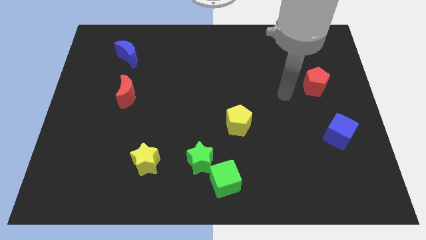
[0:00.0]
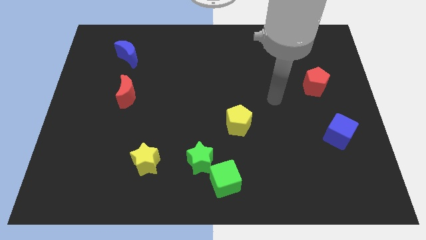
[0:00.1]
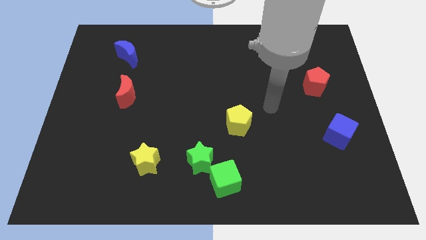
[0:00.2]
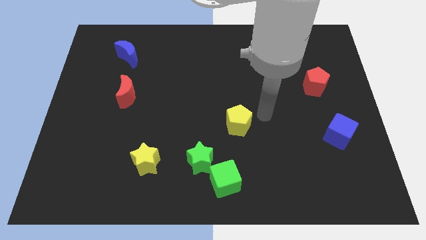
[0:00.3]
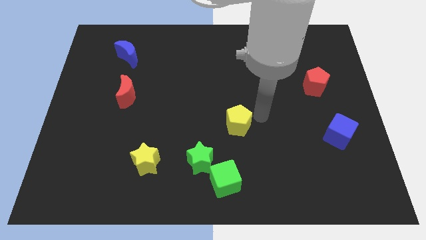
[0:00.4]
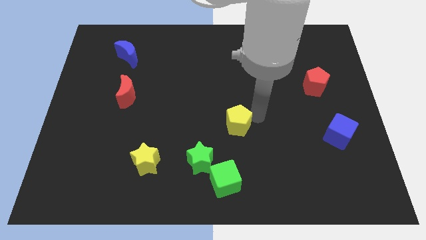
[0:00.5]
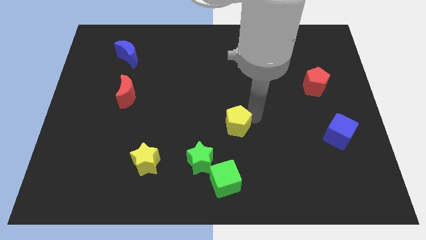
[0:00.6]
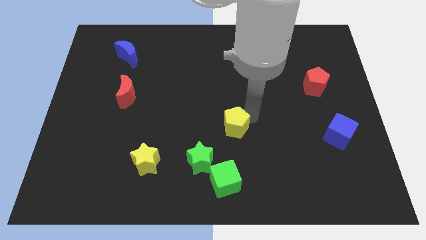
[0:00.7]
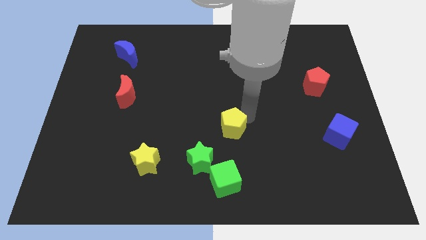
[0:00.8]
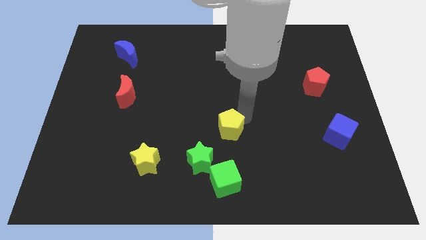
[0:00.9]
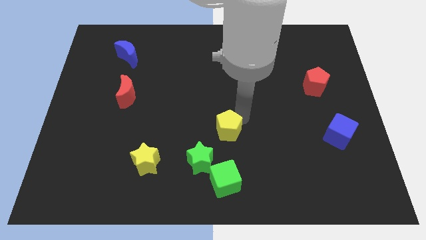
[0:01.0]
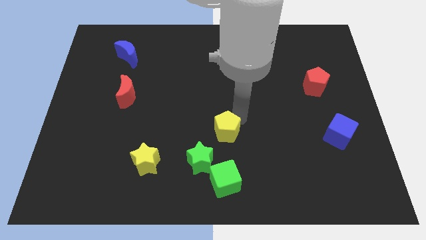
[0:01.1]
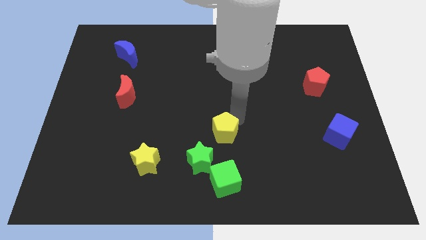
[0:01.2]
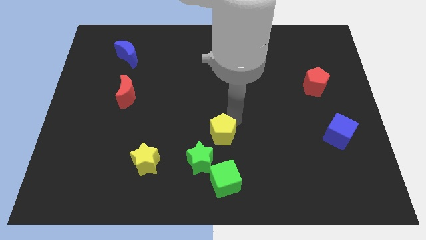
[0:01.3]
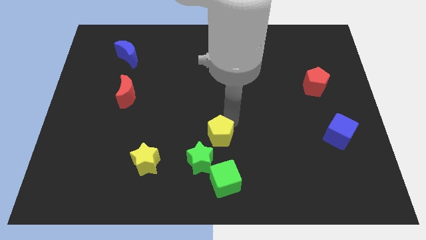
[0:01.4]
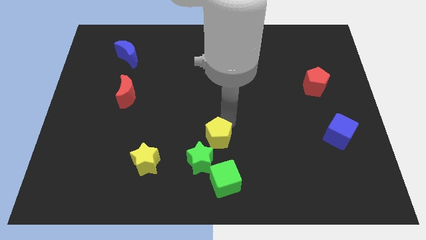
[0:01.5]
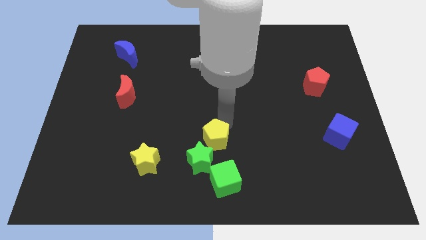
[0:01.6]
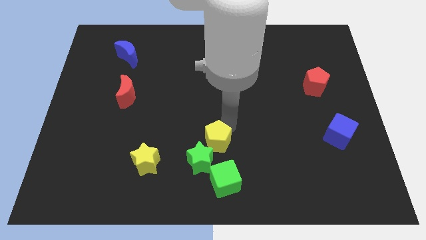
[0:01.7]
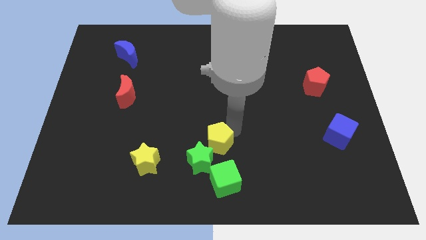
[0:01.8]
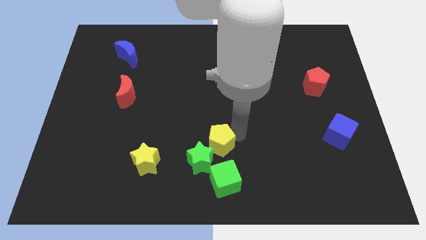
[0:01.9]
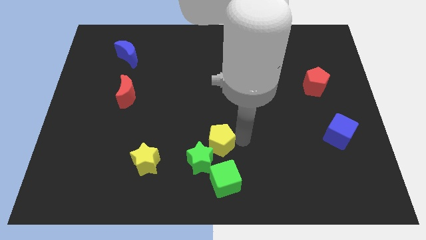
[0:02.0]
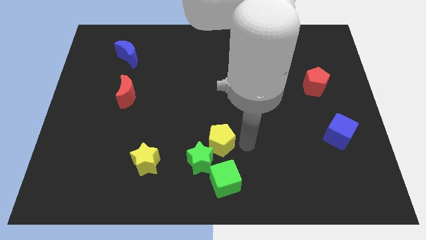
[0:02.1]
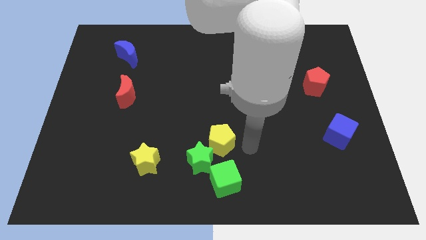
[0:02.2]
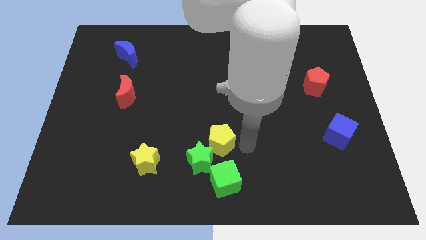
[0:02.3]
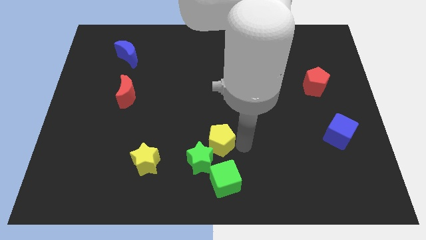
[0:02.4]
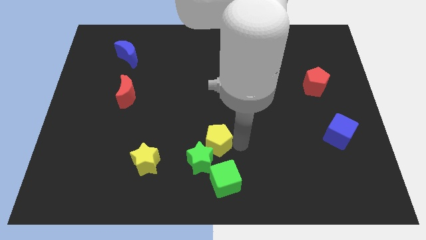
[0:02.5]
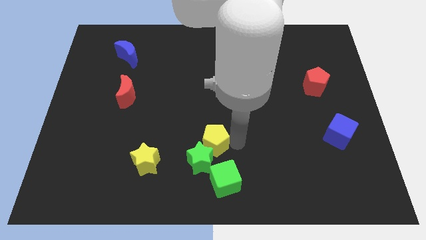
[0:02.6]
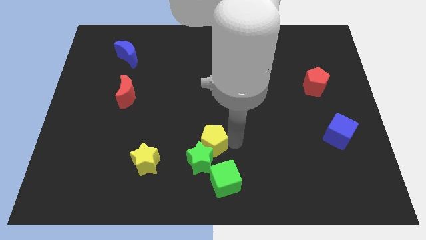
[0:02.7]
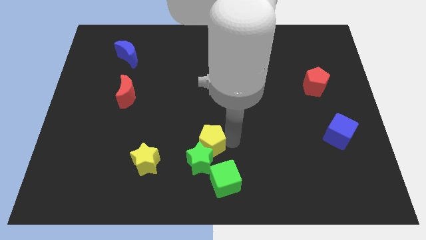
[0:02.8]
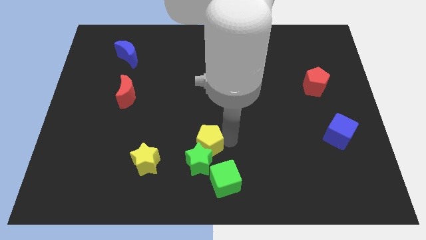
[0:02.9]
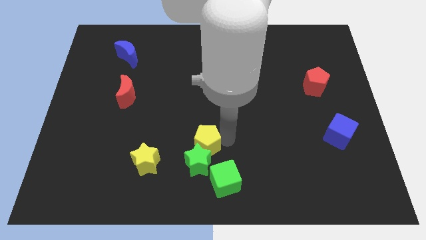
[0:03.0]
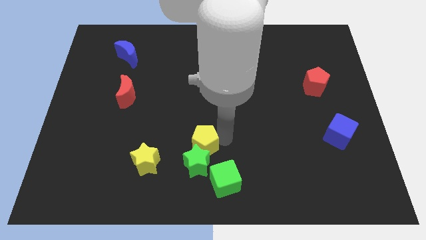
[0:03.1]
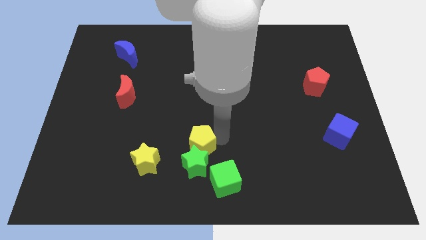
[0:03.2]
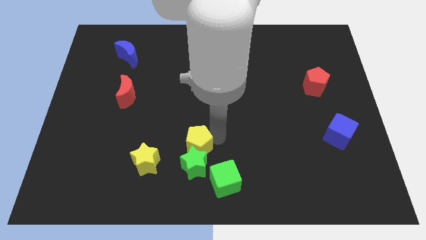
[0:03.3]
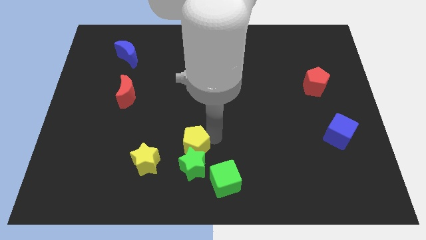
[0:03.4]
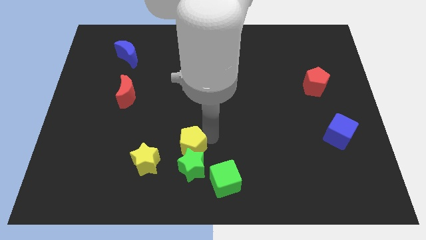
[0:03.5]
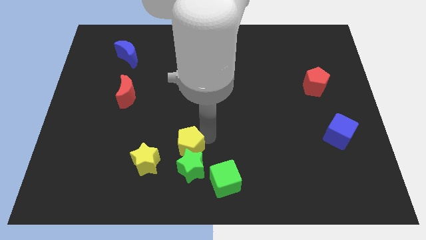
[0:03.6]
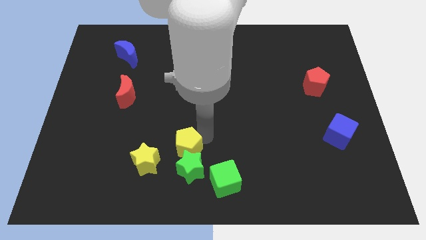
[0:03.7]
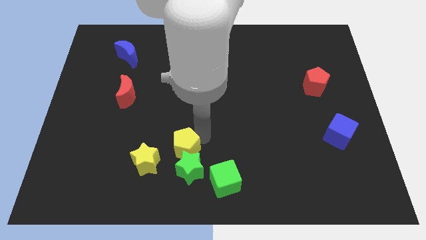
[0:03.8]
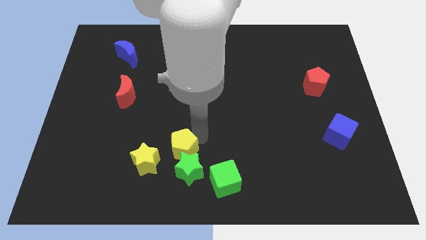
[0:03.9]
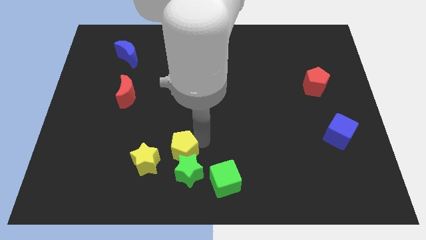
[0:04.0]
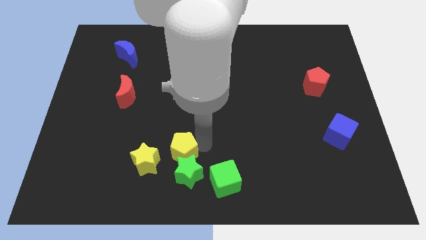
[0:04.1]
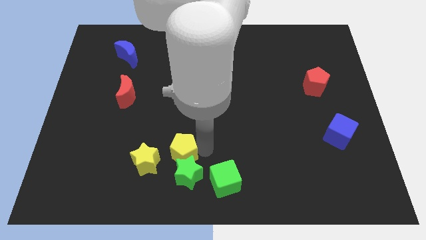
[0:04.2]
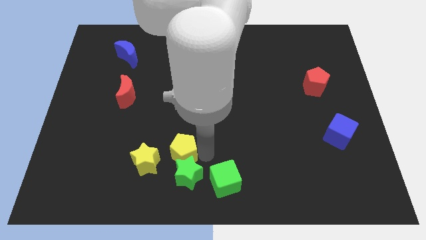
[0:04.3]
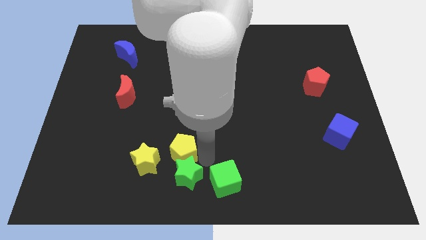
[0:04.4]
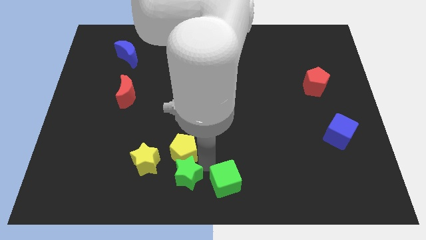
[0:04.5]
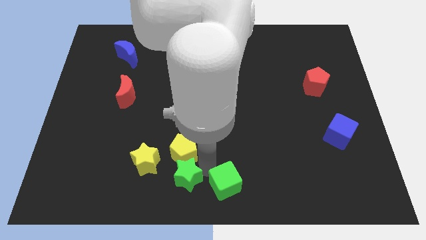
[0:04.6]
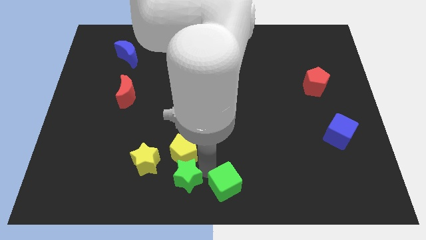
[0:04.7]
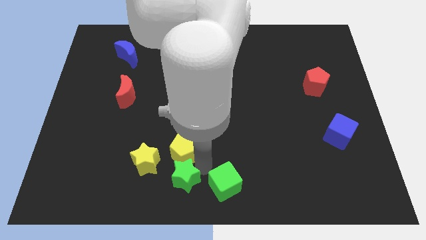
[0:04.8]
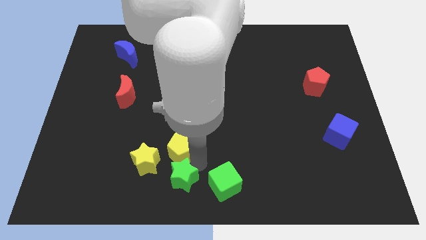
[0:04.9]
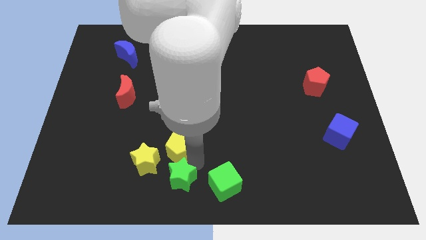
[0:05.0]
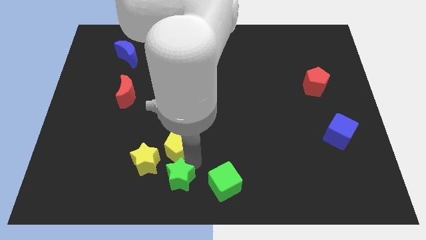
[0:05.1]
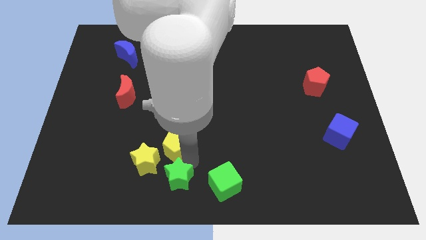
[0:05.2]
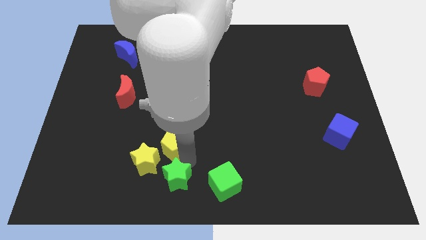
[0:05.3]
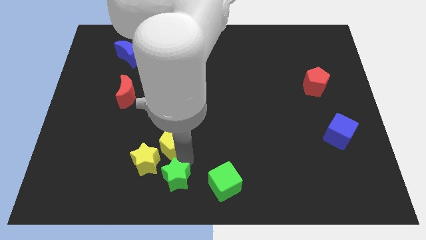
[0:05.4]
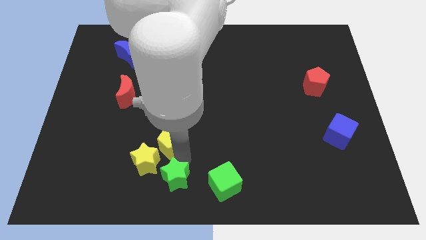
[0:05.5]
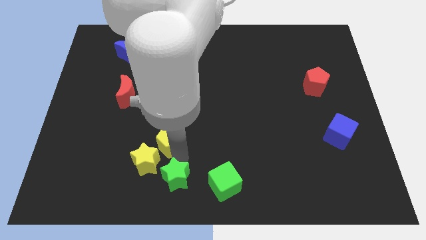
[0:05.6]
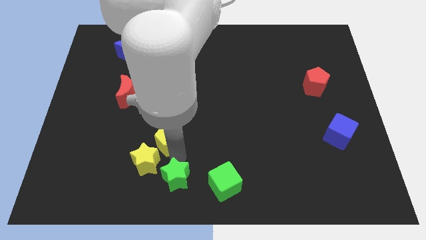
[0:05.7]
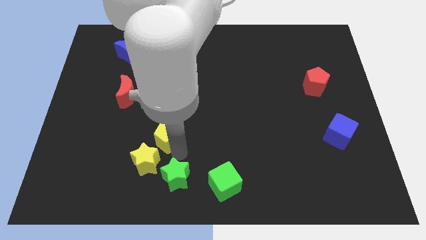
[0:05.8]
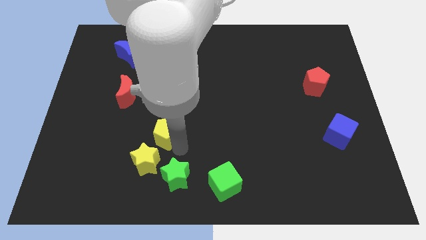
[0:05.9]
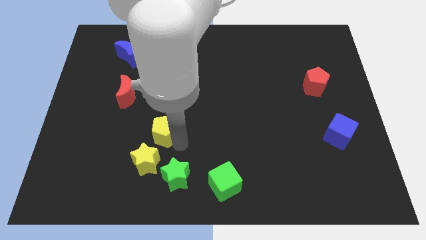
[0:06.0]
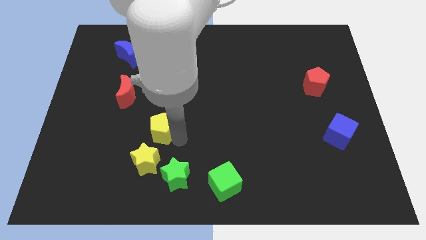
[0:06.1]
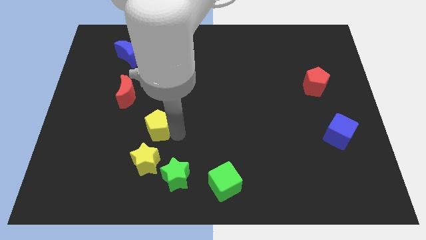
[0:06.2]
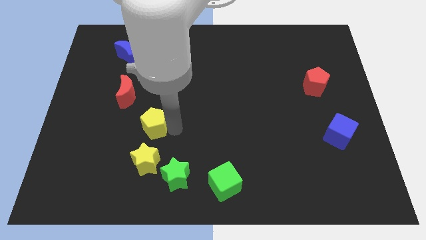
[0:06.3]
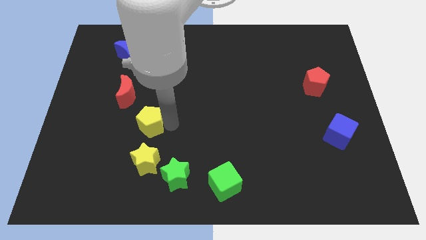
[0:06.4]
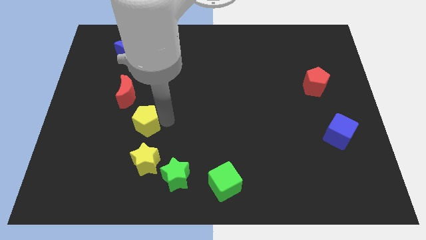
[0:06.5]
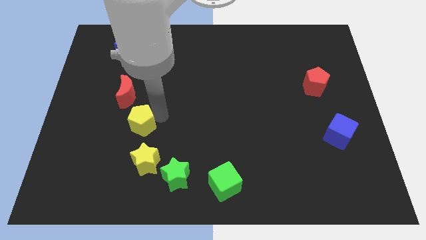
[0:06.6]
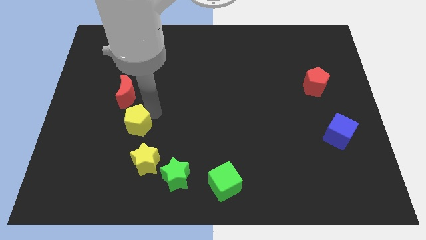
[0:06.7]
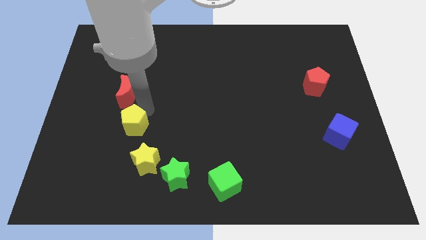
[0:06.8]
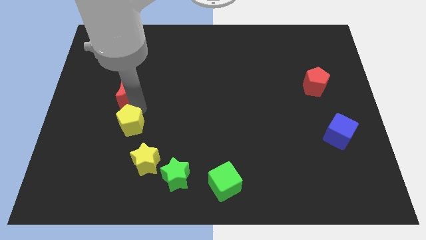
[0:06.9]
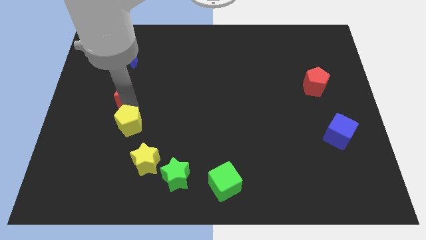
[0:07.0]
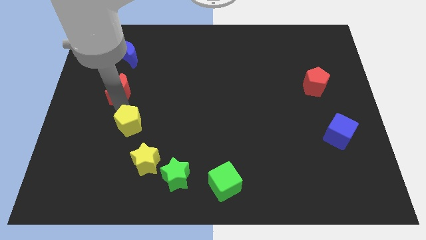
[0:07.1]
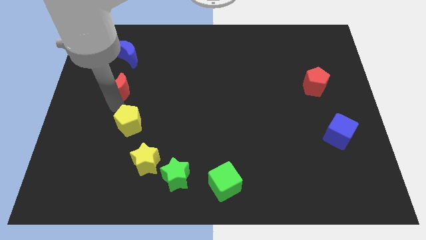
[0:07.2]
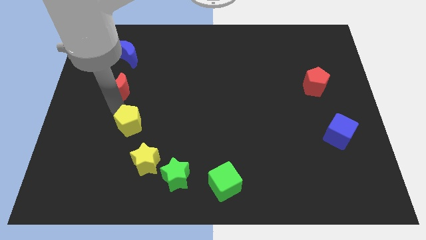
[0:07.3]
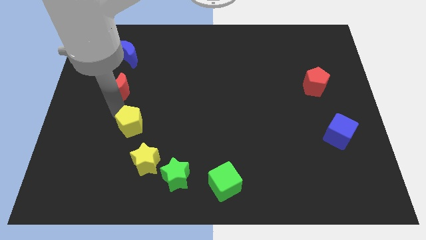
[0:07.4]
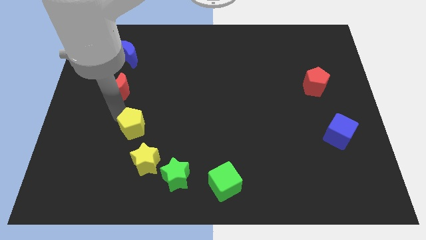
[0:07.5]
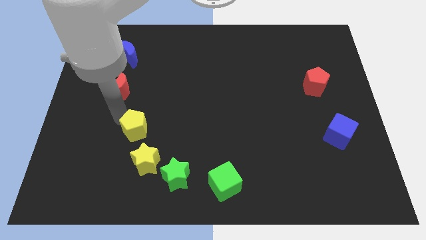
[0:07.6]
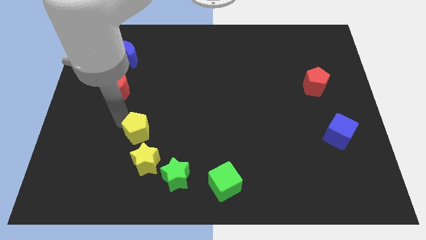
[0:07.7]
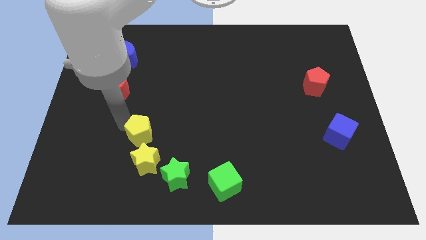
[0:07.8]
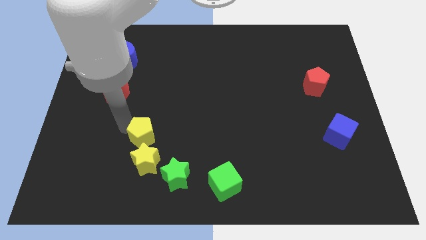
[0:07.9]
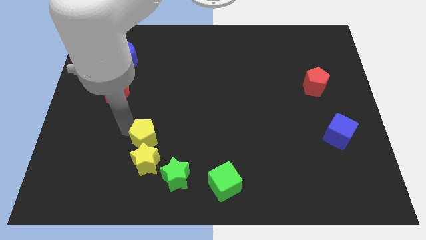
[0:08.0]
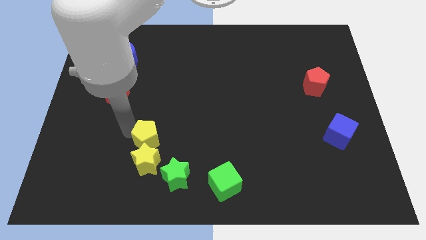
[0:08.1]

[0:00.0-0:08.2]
put the yellow pentagon close to the yellow star
